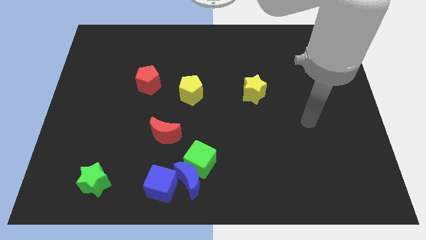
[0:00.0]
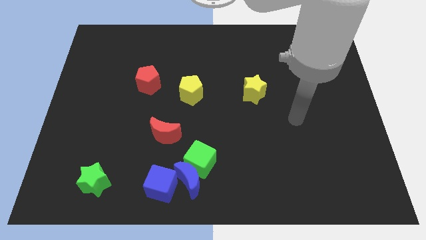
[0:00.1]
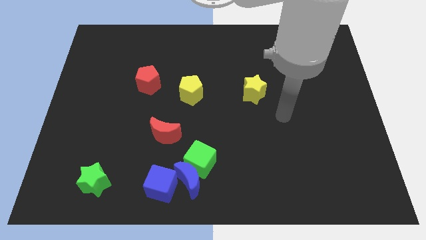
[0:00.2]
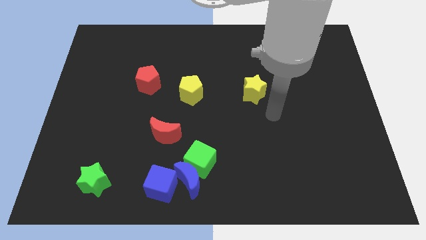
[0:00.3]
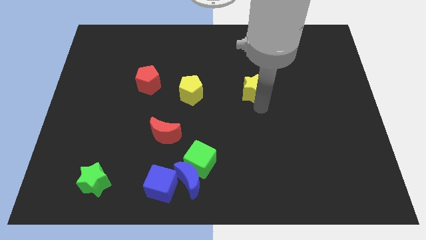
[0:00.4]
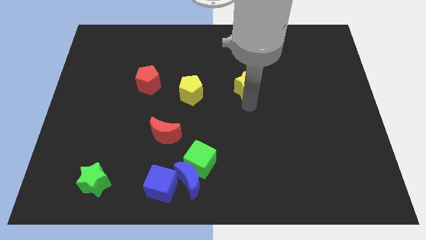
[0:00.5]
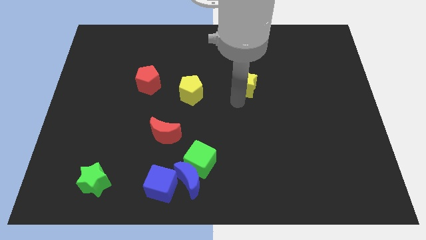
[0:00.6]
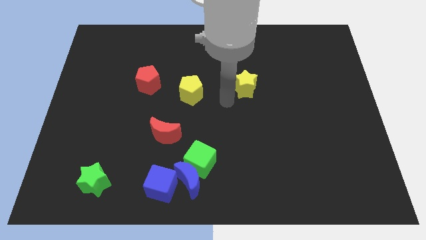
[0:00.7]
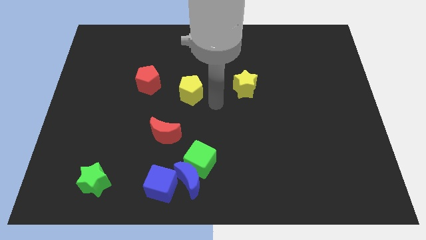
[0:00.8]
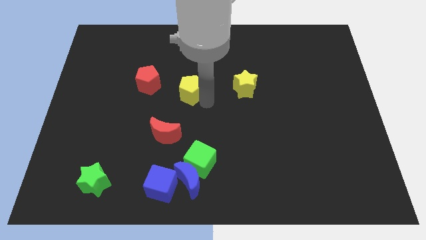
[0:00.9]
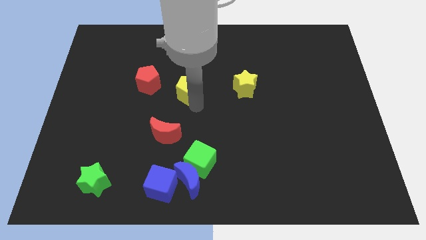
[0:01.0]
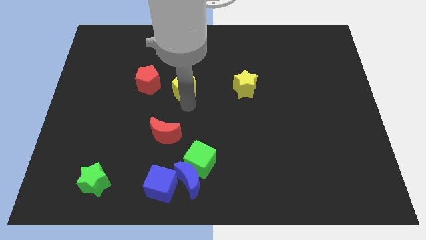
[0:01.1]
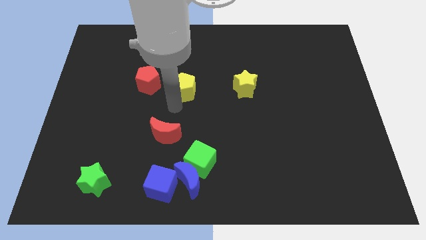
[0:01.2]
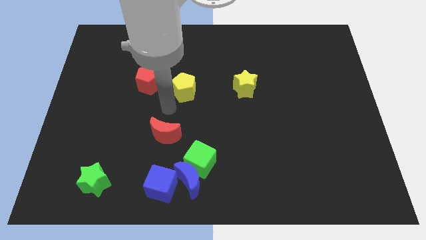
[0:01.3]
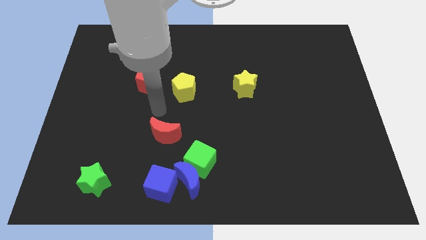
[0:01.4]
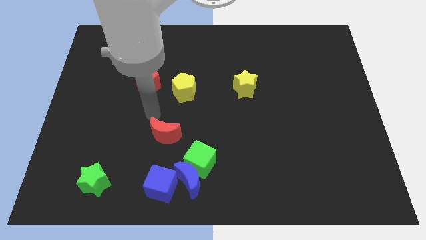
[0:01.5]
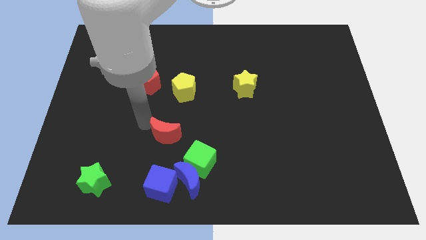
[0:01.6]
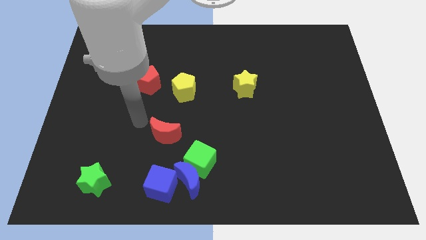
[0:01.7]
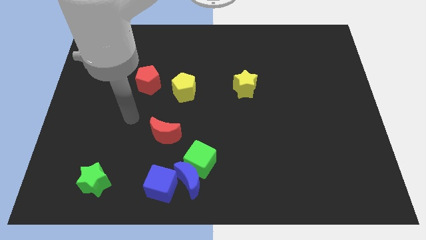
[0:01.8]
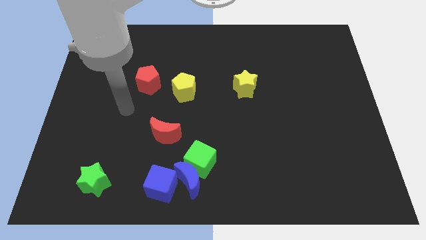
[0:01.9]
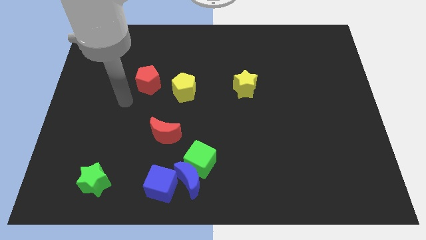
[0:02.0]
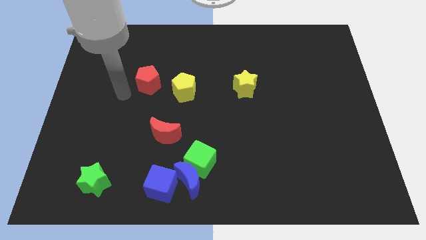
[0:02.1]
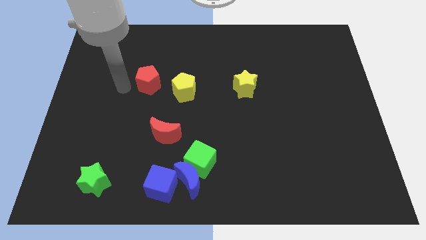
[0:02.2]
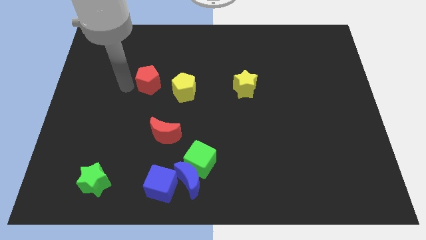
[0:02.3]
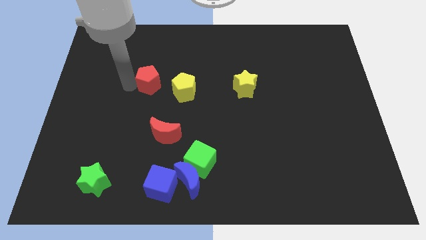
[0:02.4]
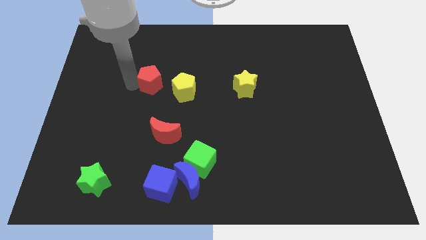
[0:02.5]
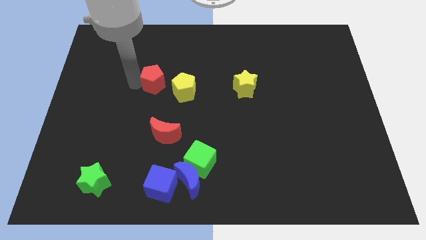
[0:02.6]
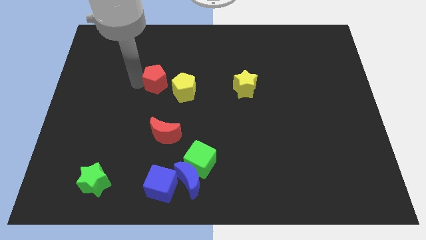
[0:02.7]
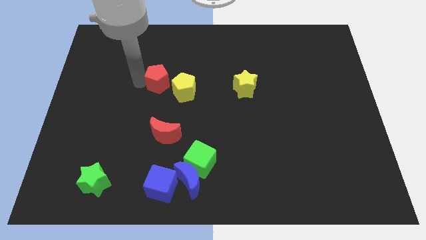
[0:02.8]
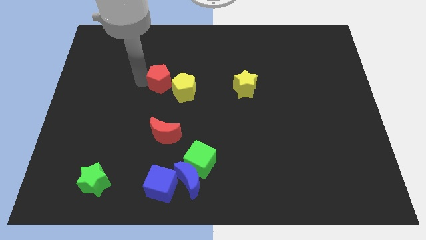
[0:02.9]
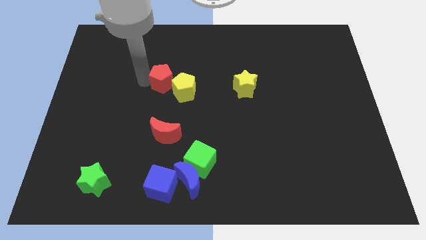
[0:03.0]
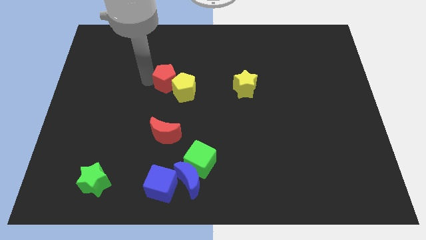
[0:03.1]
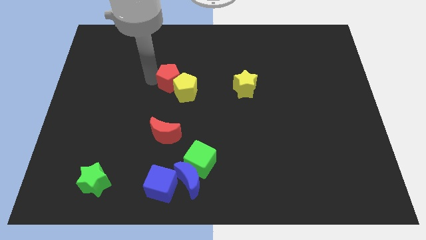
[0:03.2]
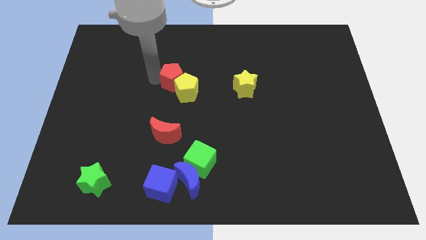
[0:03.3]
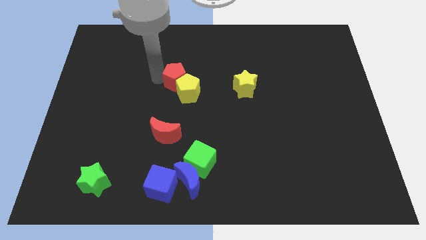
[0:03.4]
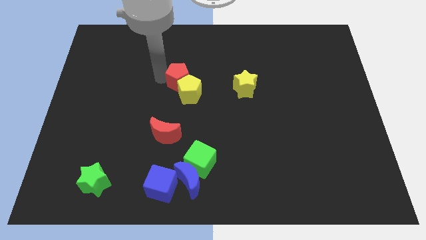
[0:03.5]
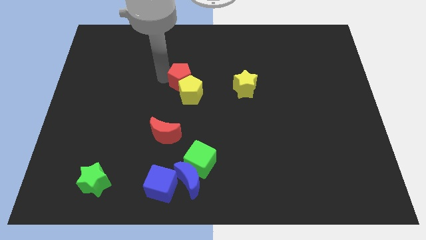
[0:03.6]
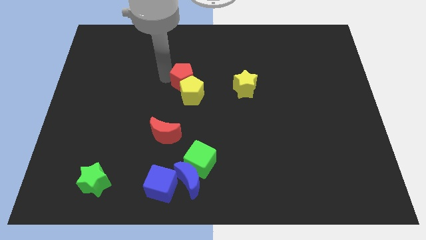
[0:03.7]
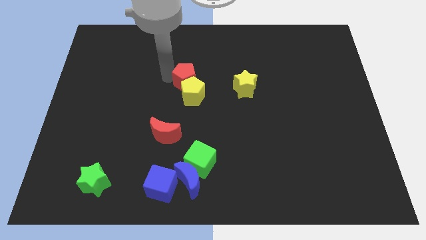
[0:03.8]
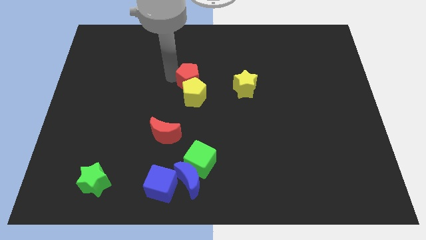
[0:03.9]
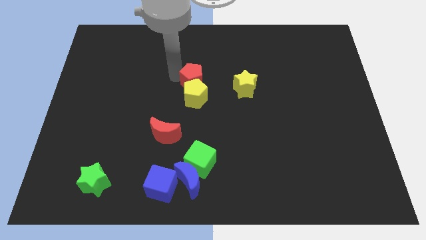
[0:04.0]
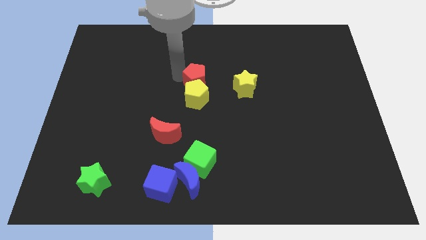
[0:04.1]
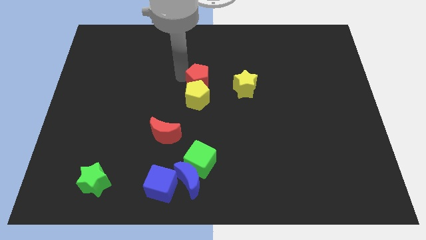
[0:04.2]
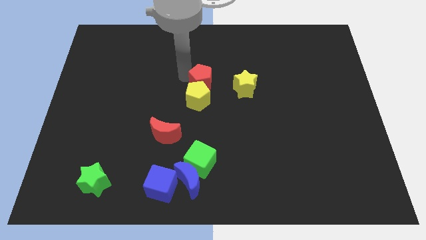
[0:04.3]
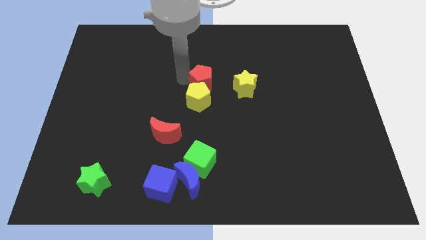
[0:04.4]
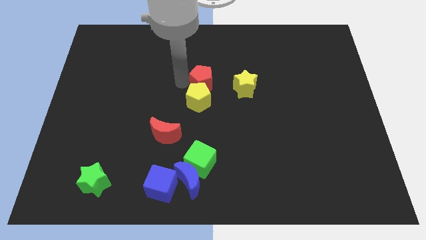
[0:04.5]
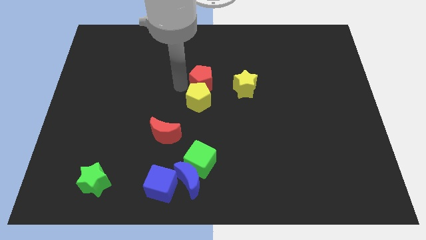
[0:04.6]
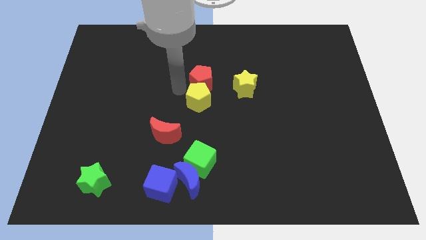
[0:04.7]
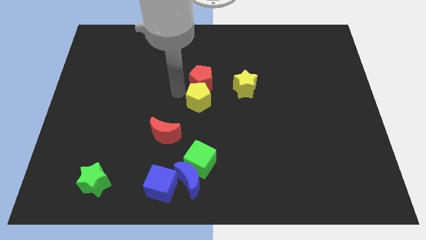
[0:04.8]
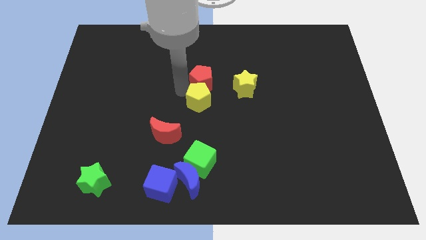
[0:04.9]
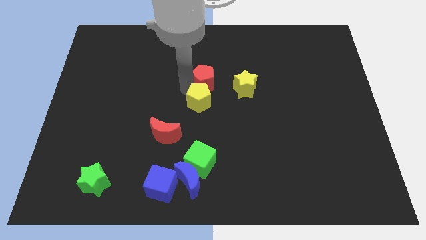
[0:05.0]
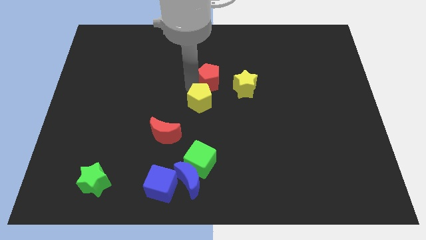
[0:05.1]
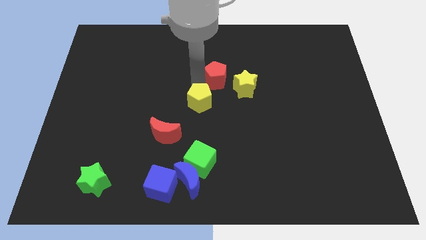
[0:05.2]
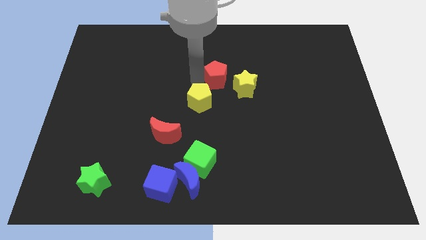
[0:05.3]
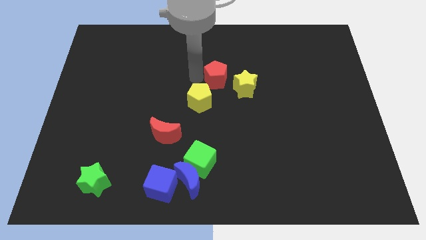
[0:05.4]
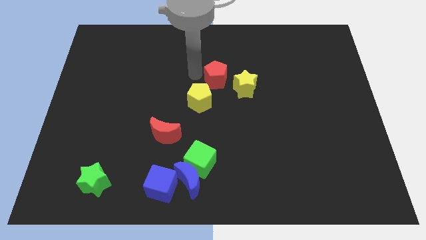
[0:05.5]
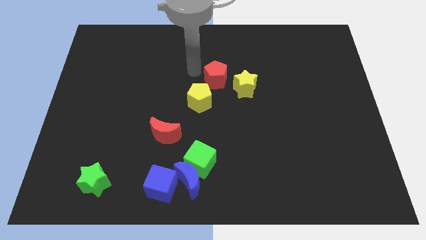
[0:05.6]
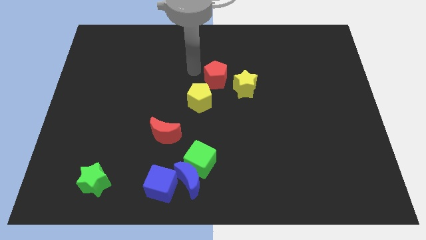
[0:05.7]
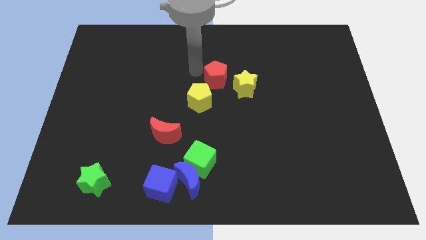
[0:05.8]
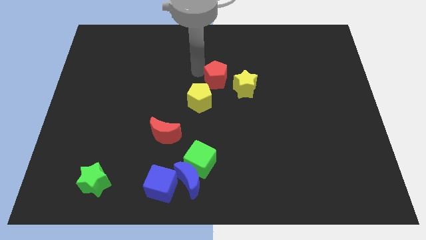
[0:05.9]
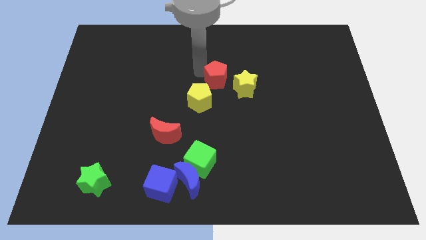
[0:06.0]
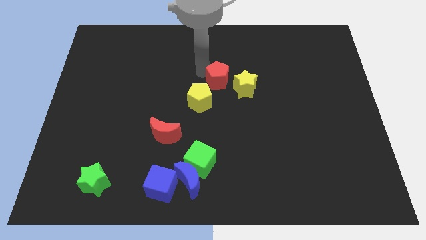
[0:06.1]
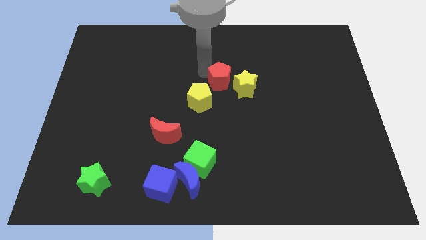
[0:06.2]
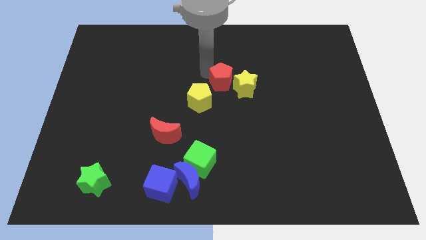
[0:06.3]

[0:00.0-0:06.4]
push the red pentagon close to the yellow star
